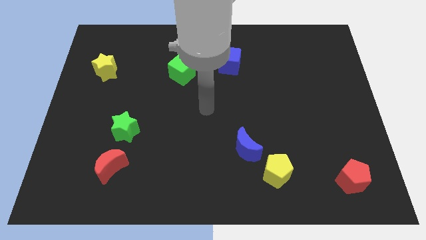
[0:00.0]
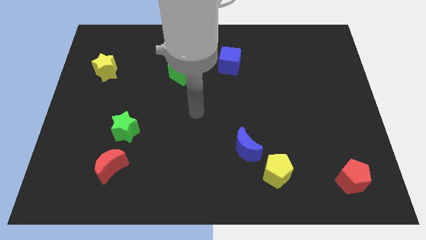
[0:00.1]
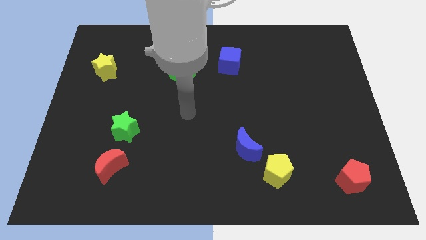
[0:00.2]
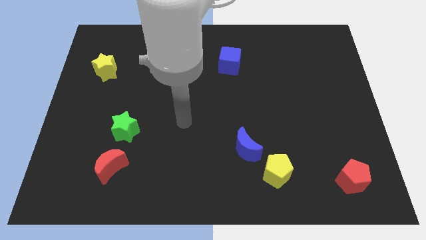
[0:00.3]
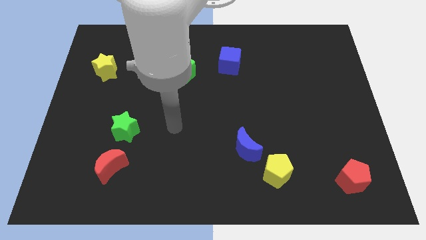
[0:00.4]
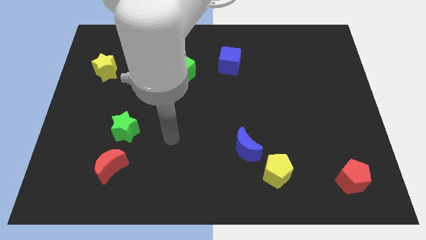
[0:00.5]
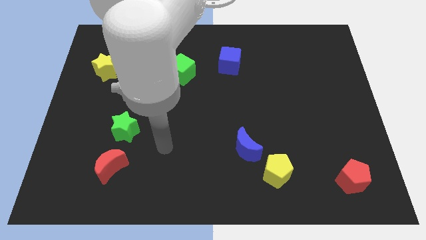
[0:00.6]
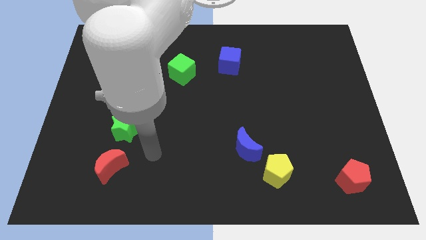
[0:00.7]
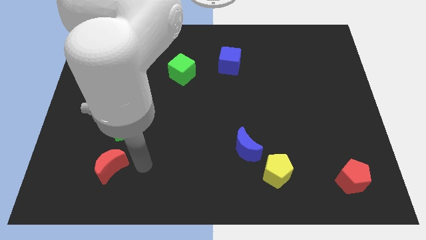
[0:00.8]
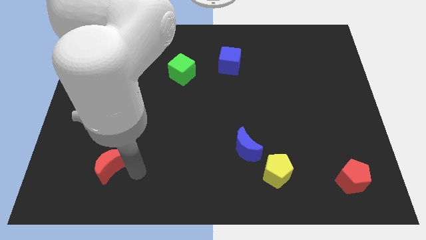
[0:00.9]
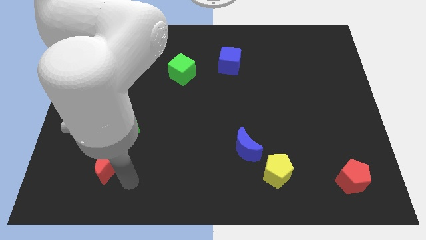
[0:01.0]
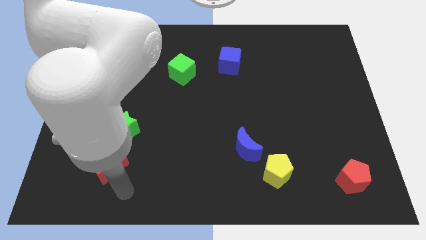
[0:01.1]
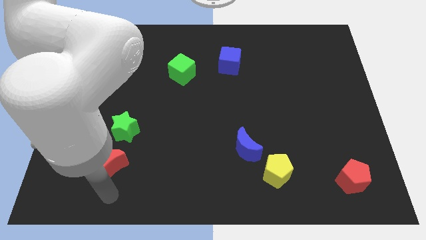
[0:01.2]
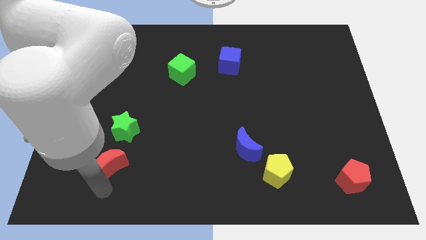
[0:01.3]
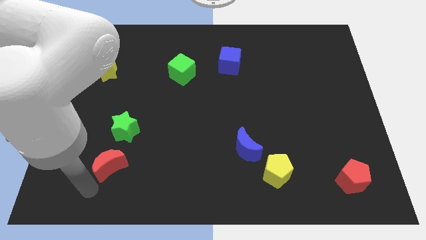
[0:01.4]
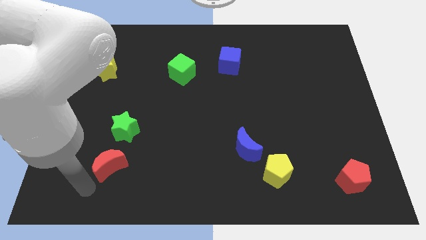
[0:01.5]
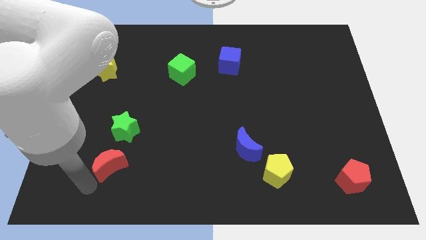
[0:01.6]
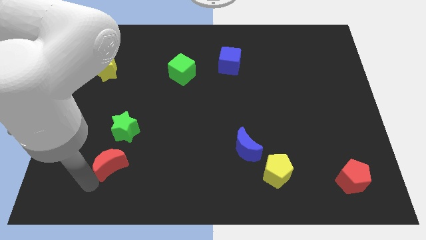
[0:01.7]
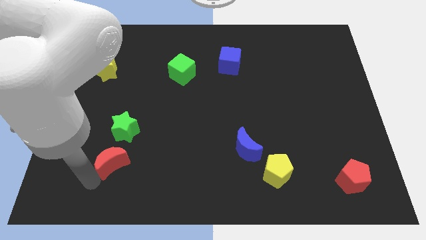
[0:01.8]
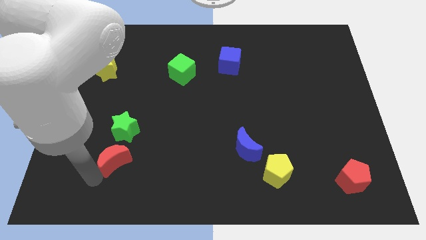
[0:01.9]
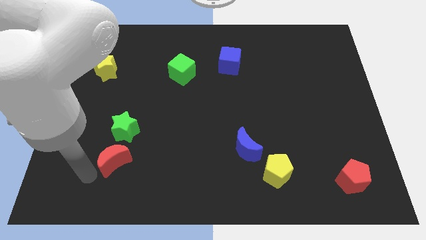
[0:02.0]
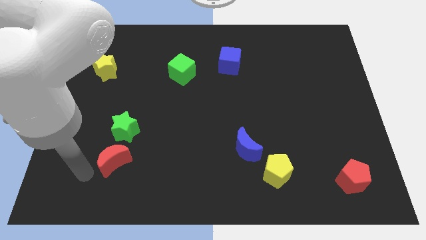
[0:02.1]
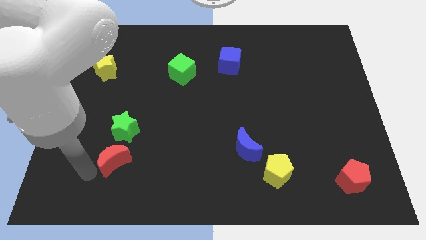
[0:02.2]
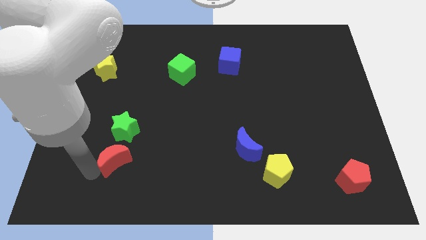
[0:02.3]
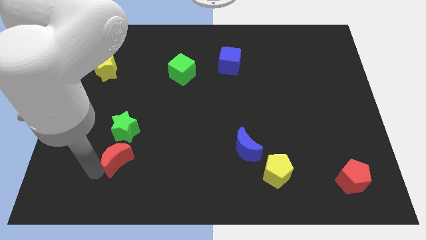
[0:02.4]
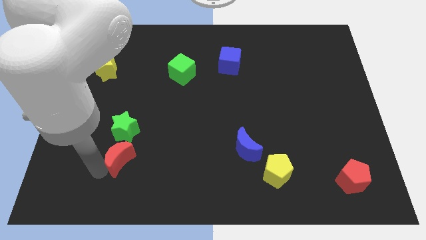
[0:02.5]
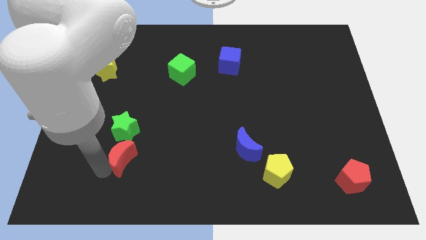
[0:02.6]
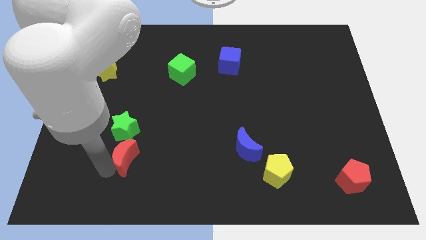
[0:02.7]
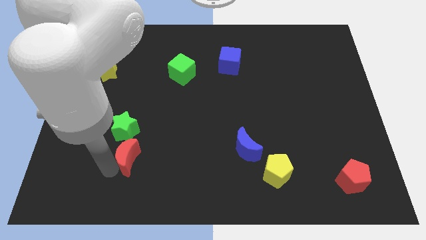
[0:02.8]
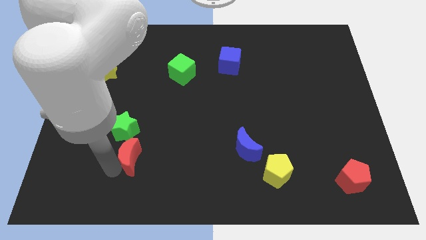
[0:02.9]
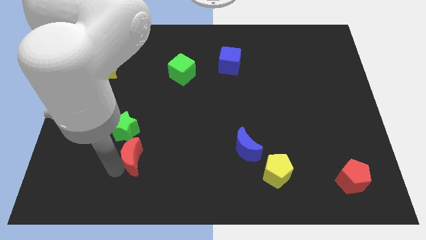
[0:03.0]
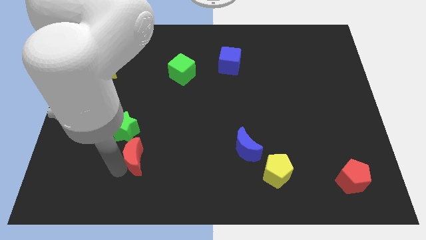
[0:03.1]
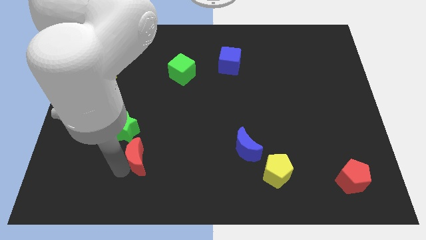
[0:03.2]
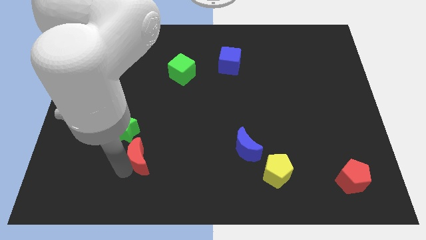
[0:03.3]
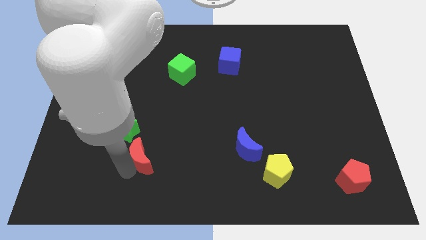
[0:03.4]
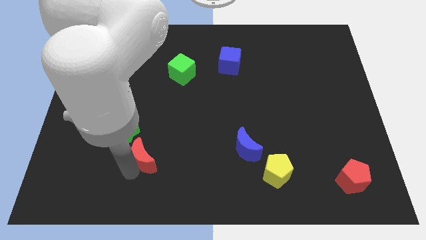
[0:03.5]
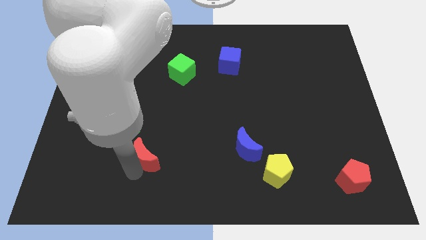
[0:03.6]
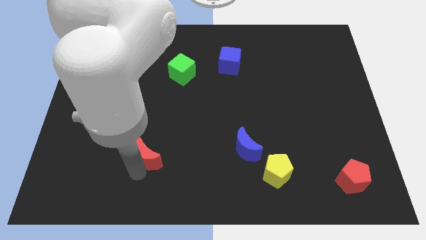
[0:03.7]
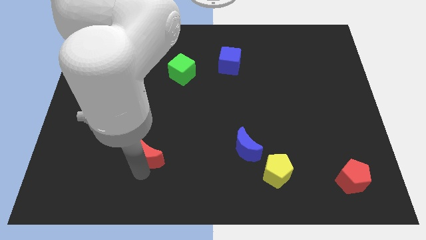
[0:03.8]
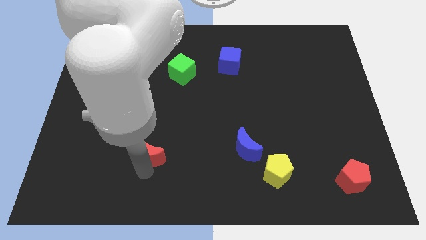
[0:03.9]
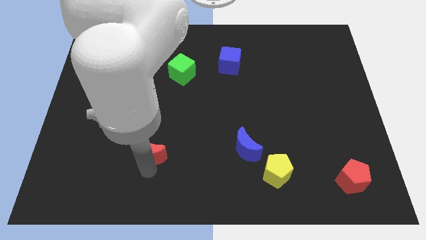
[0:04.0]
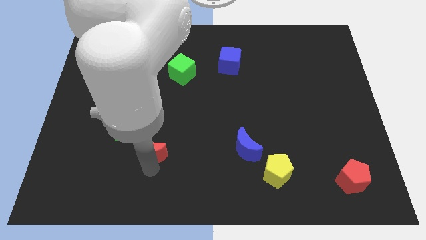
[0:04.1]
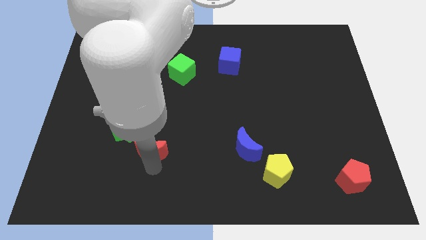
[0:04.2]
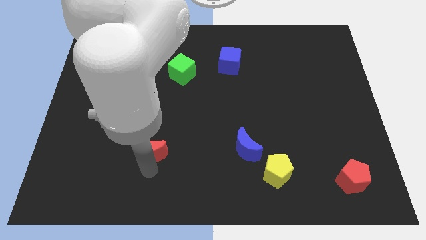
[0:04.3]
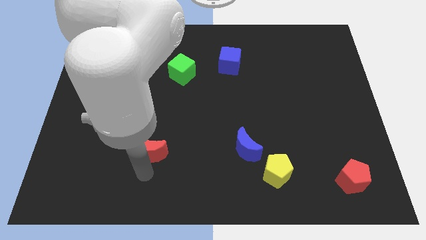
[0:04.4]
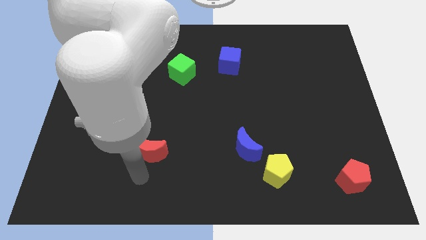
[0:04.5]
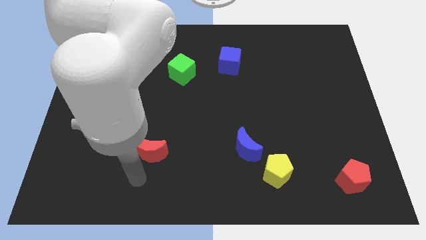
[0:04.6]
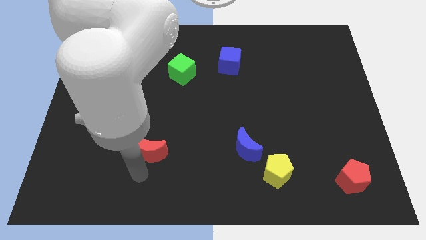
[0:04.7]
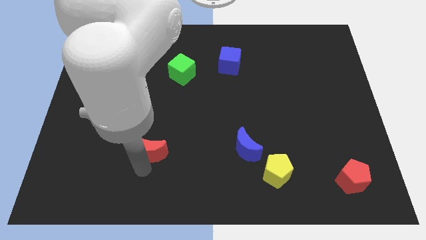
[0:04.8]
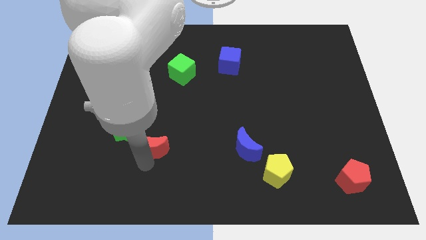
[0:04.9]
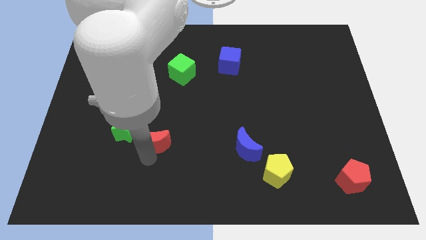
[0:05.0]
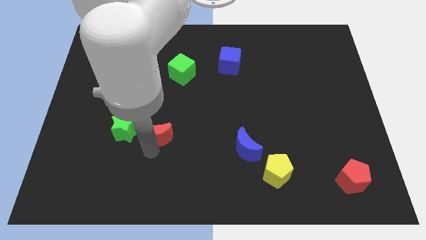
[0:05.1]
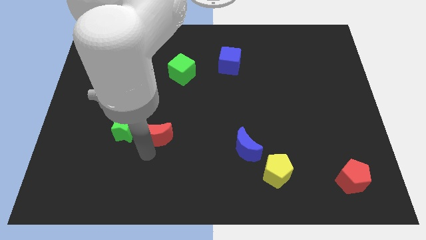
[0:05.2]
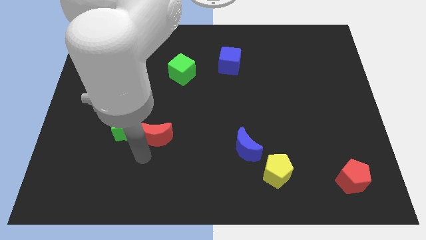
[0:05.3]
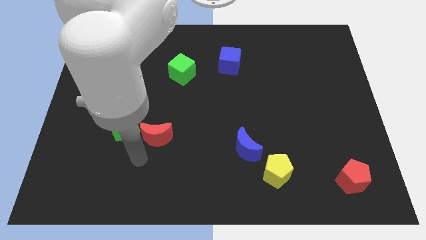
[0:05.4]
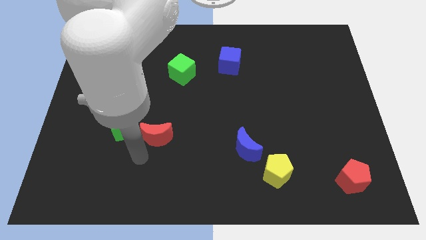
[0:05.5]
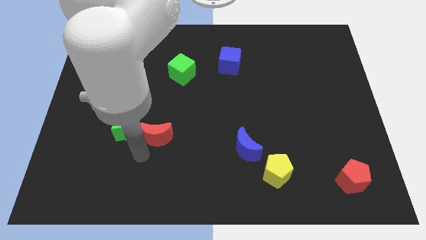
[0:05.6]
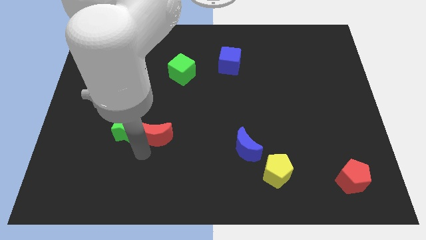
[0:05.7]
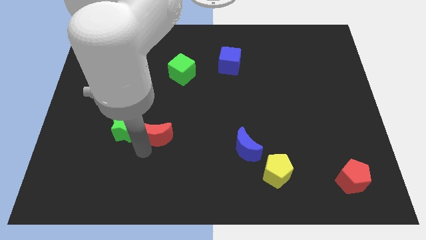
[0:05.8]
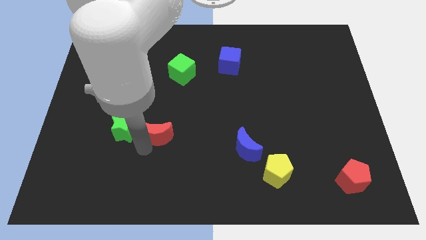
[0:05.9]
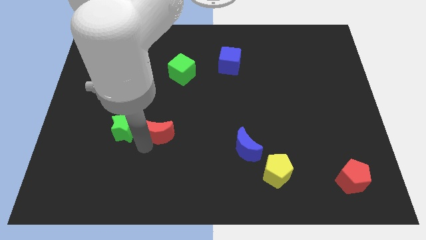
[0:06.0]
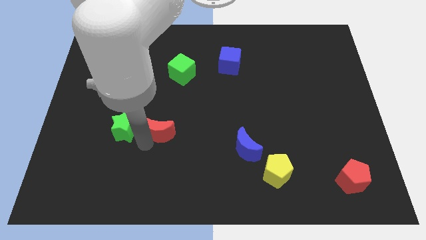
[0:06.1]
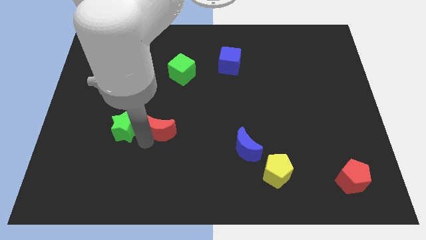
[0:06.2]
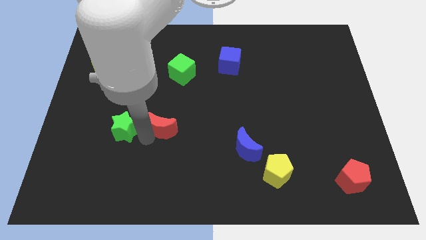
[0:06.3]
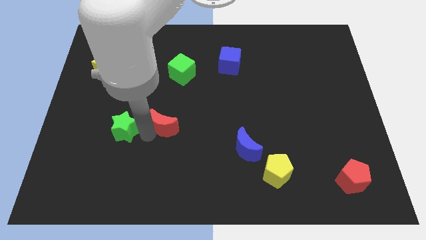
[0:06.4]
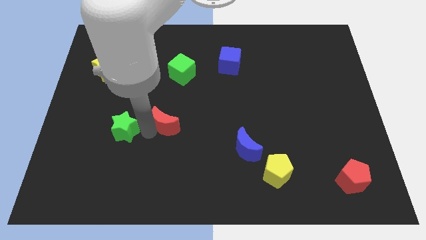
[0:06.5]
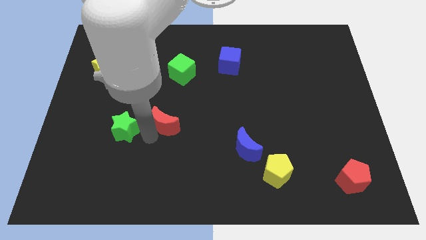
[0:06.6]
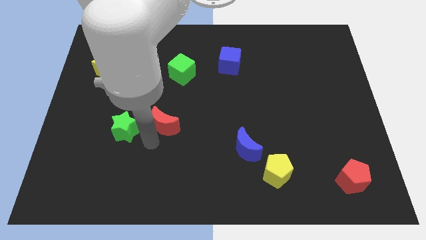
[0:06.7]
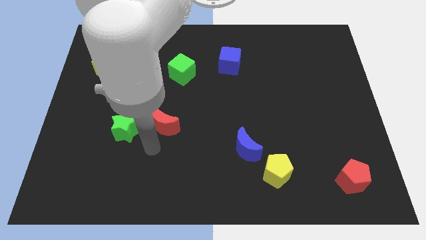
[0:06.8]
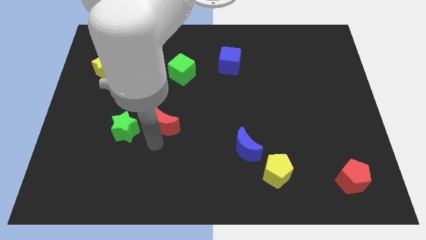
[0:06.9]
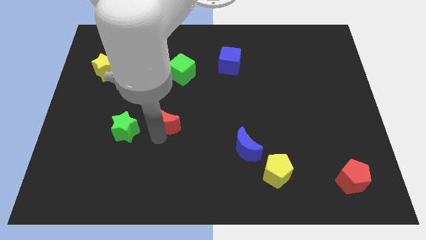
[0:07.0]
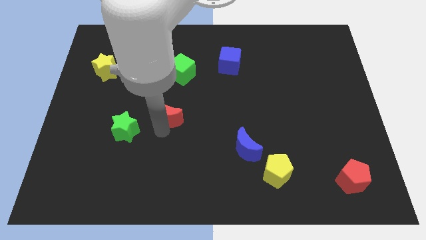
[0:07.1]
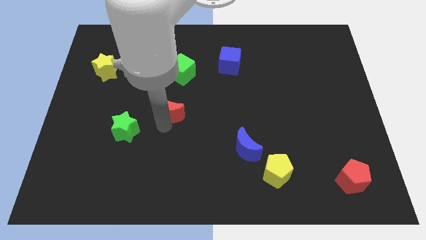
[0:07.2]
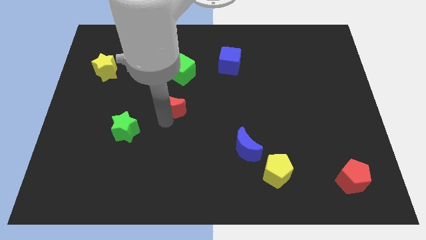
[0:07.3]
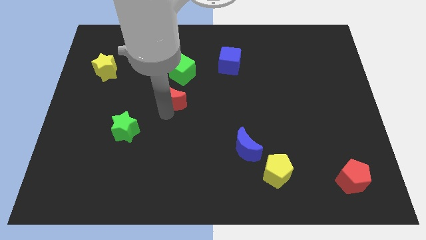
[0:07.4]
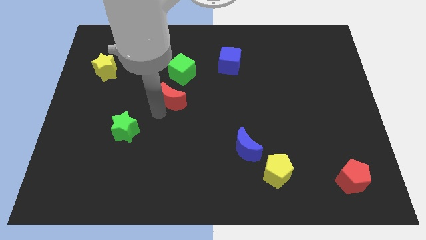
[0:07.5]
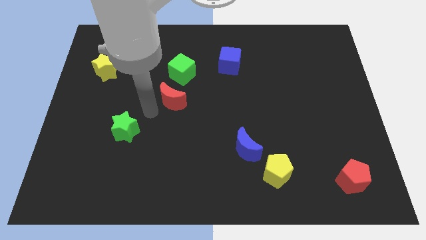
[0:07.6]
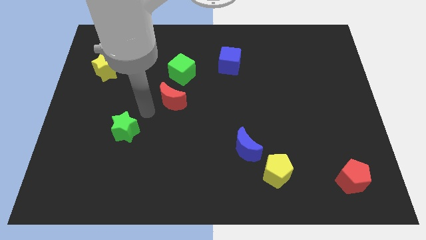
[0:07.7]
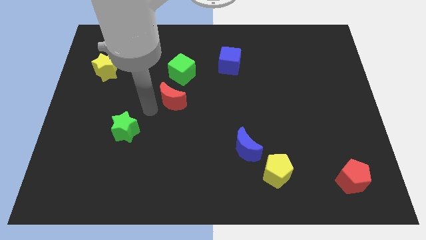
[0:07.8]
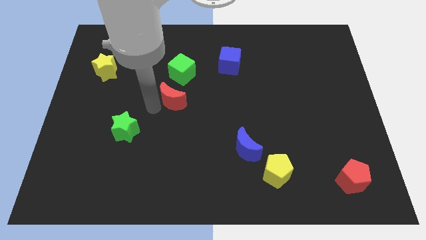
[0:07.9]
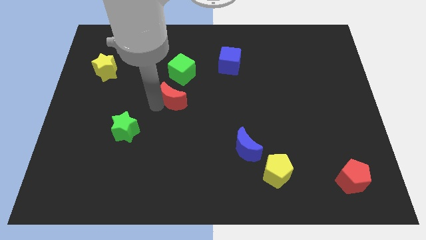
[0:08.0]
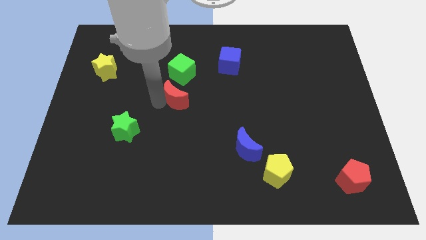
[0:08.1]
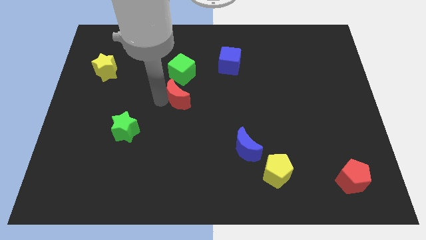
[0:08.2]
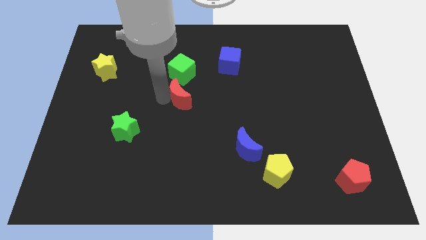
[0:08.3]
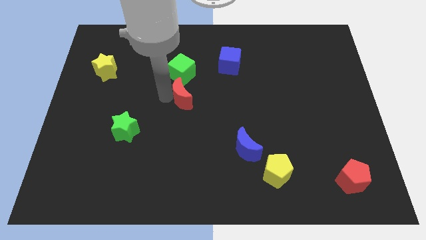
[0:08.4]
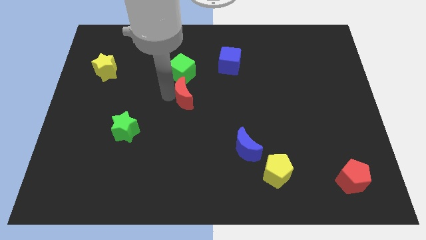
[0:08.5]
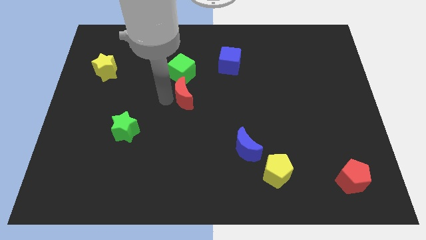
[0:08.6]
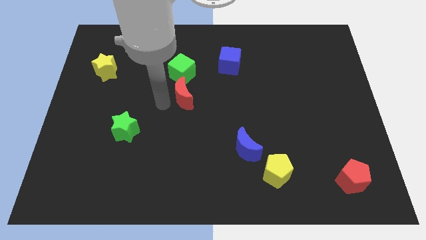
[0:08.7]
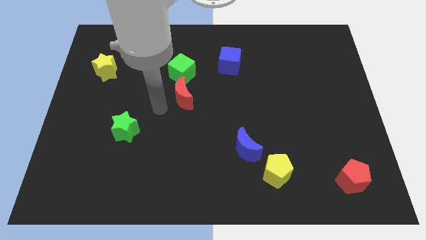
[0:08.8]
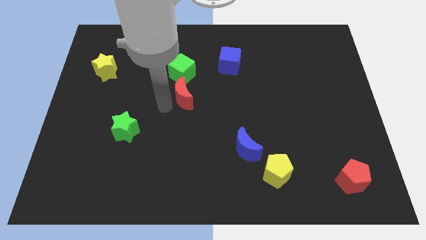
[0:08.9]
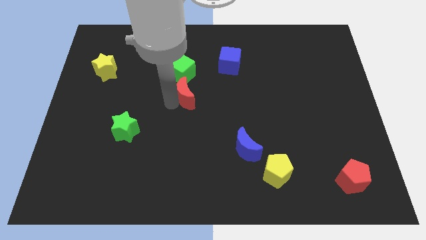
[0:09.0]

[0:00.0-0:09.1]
move the red moon to the bottom right side of the green cube
